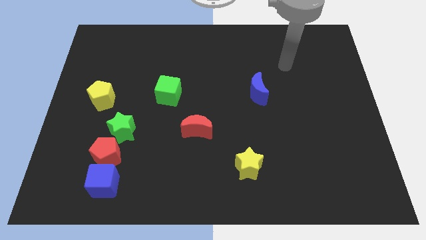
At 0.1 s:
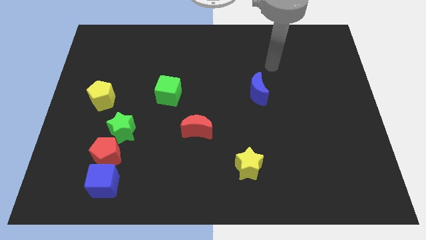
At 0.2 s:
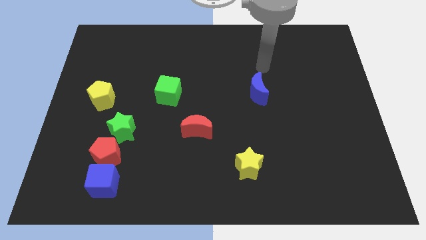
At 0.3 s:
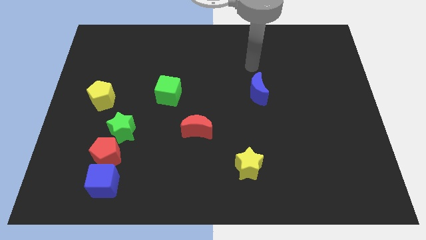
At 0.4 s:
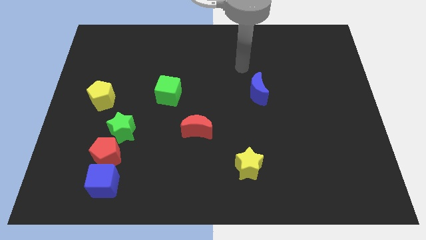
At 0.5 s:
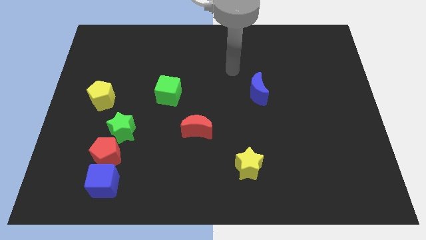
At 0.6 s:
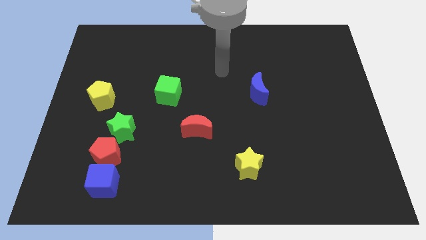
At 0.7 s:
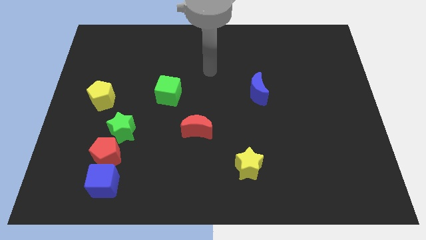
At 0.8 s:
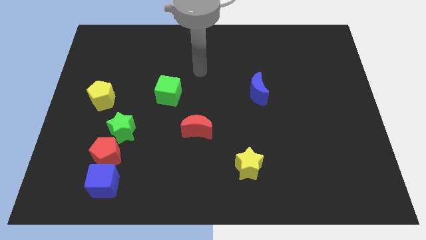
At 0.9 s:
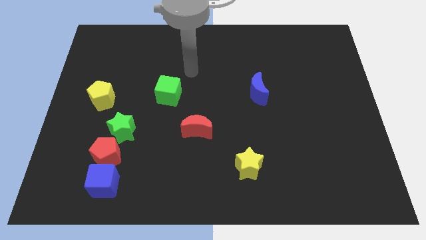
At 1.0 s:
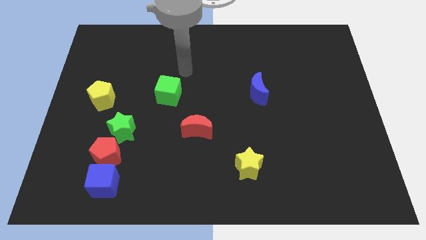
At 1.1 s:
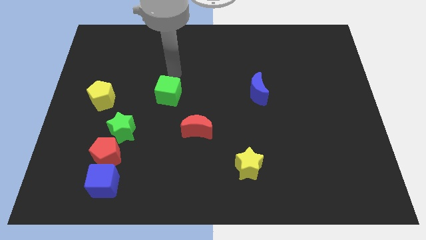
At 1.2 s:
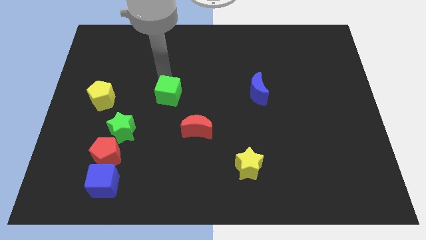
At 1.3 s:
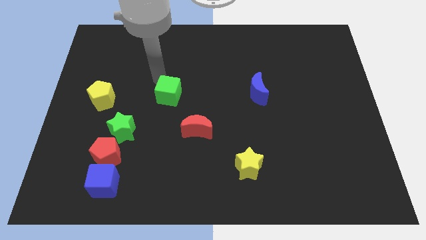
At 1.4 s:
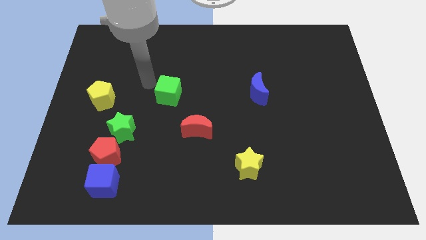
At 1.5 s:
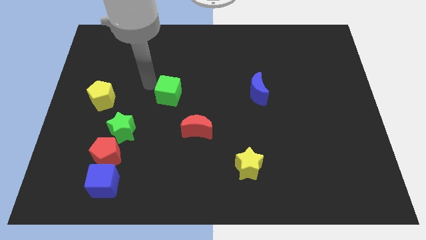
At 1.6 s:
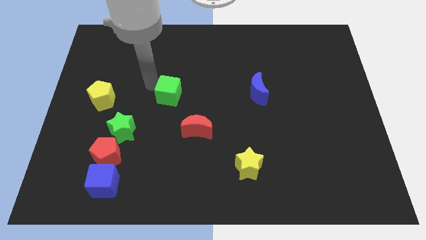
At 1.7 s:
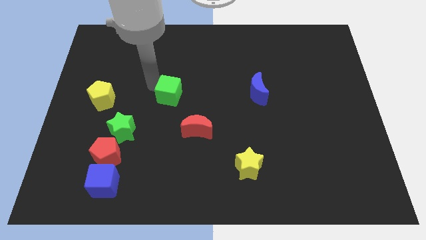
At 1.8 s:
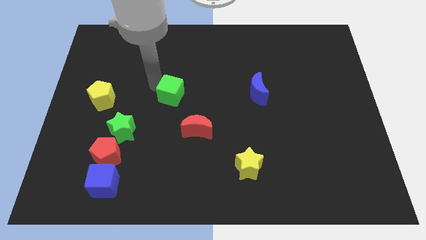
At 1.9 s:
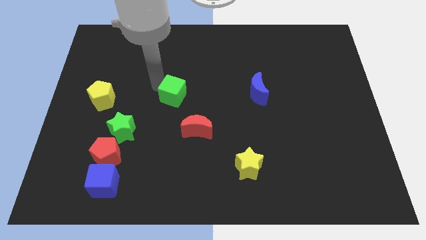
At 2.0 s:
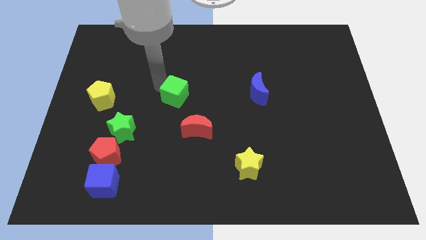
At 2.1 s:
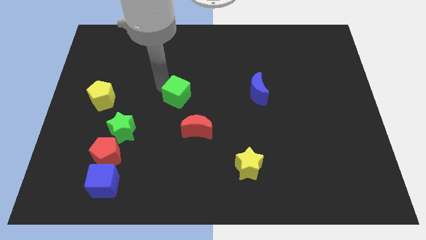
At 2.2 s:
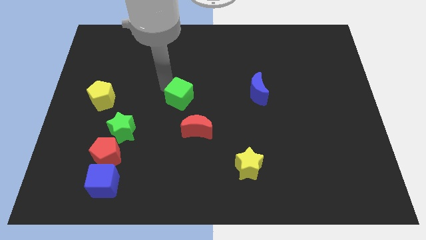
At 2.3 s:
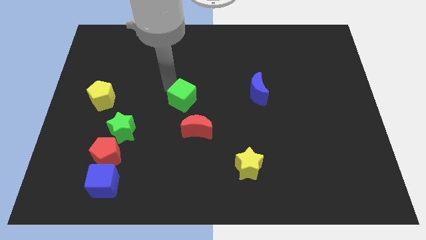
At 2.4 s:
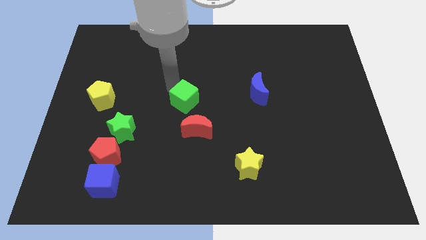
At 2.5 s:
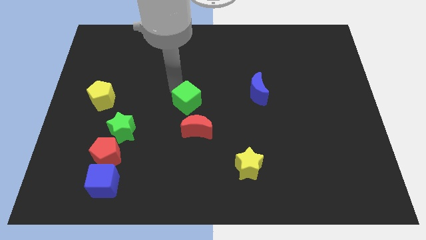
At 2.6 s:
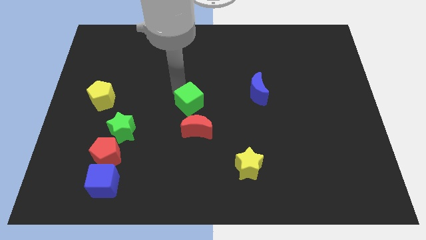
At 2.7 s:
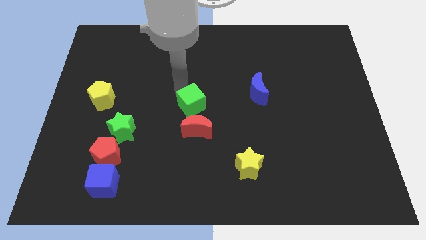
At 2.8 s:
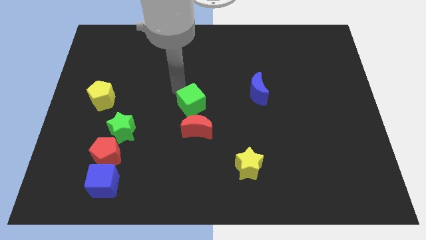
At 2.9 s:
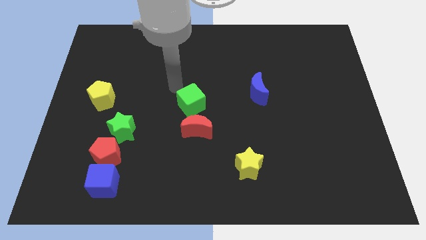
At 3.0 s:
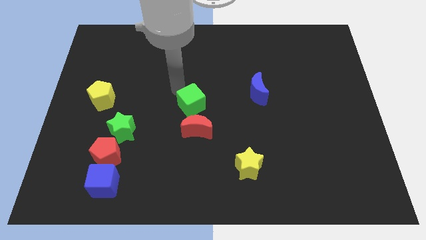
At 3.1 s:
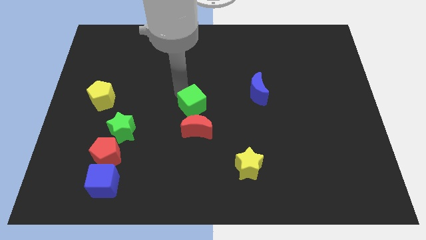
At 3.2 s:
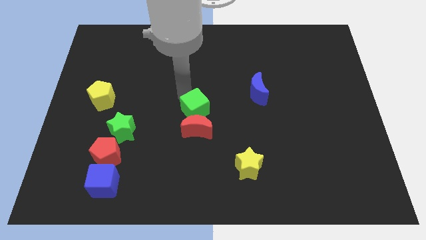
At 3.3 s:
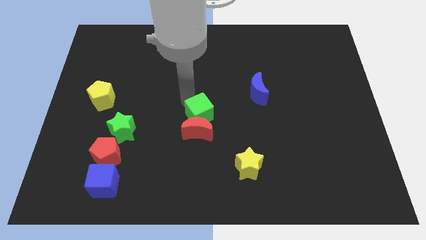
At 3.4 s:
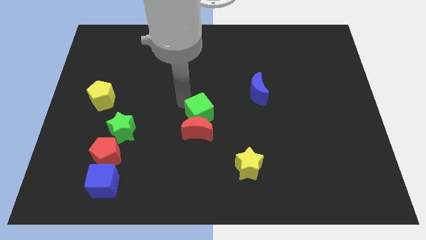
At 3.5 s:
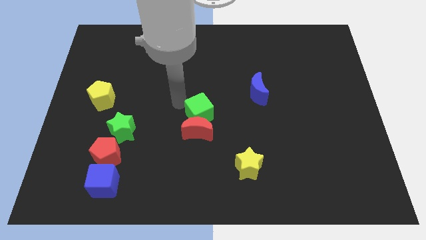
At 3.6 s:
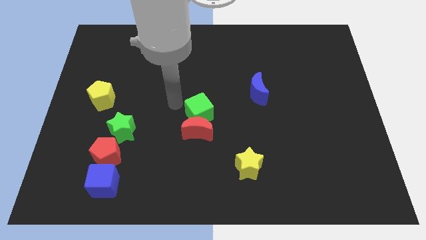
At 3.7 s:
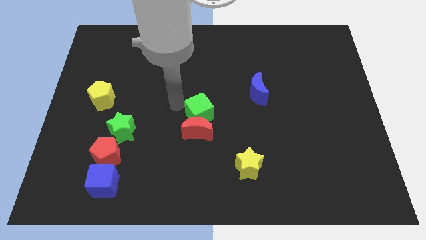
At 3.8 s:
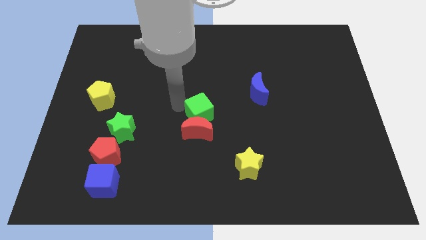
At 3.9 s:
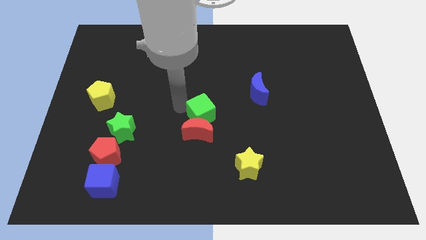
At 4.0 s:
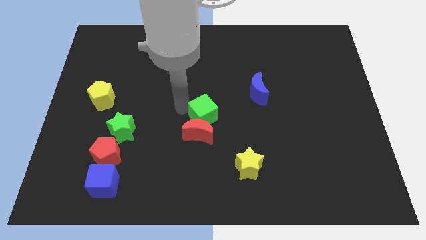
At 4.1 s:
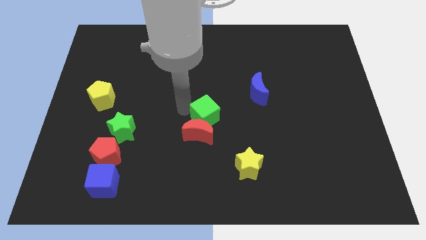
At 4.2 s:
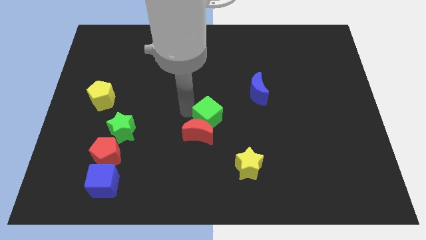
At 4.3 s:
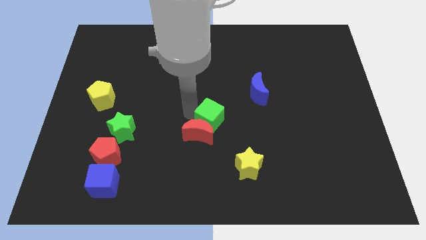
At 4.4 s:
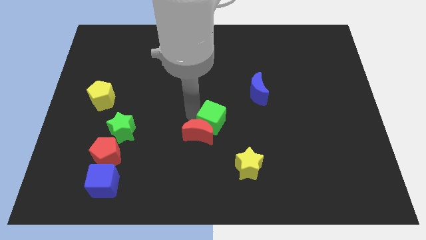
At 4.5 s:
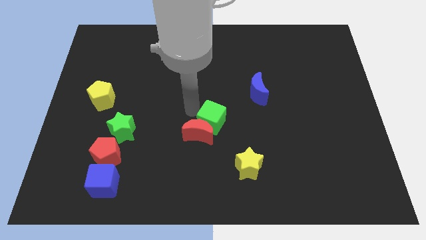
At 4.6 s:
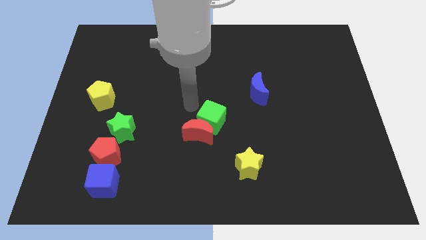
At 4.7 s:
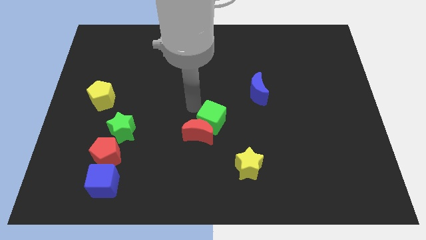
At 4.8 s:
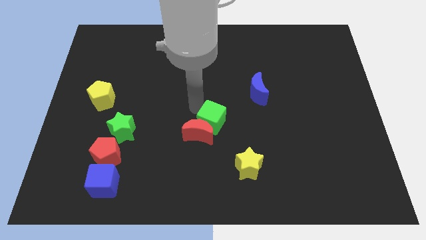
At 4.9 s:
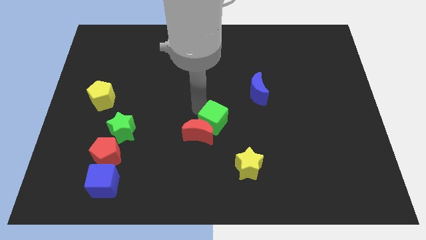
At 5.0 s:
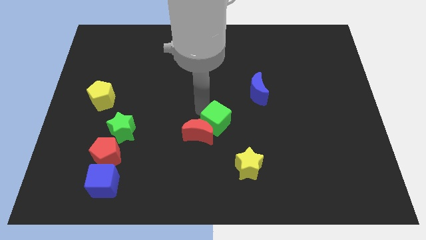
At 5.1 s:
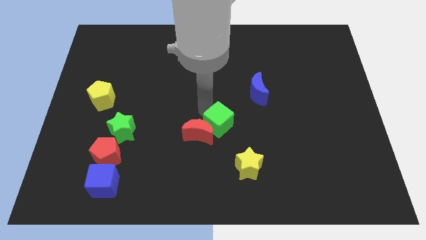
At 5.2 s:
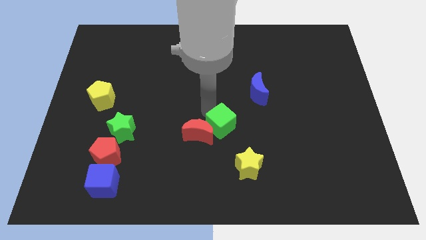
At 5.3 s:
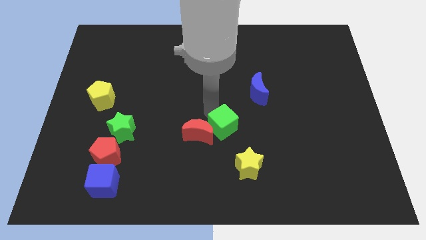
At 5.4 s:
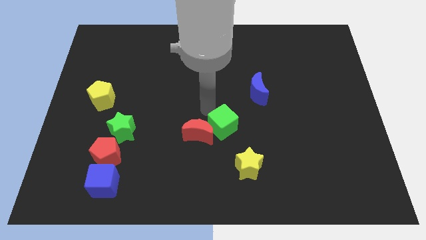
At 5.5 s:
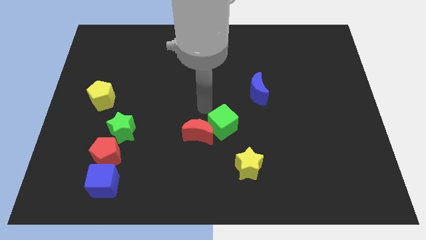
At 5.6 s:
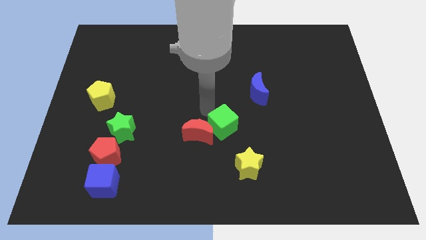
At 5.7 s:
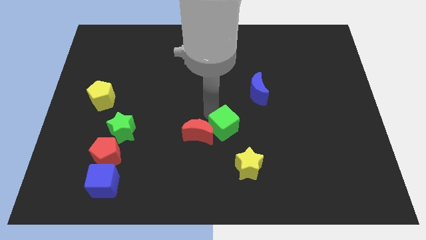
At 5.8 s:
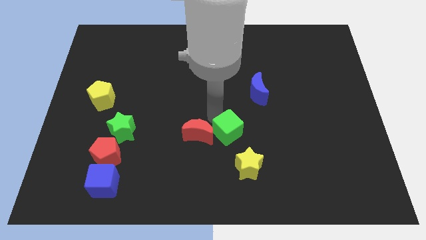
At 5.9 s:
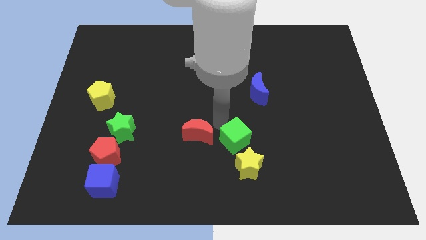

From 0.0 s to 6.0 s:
slide the green cube downwards and right

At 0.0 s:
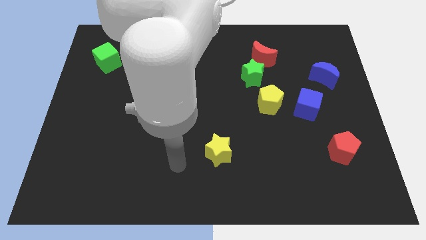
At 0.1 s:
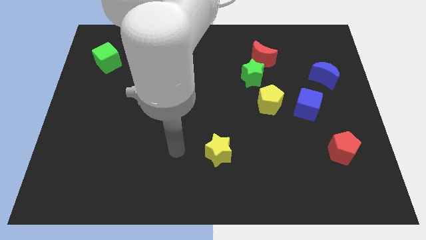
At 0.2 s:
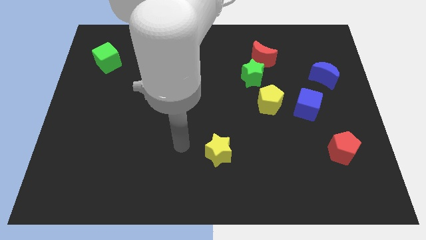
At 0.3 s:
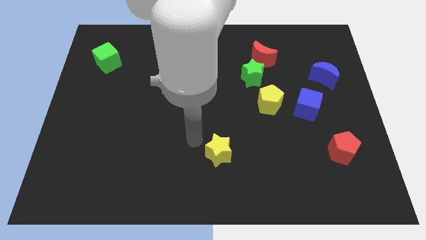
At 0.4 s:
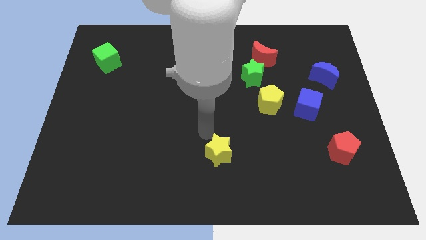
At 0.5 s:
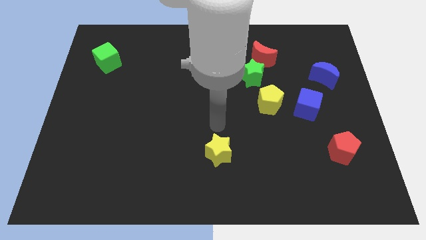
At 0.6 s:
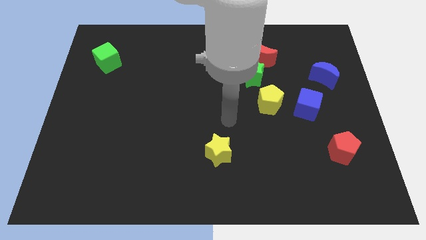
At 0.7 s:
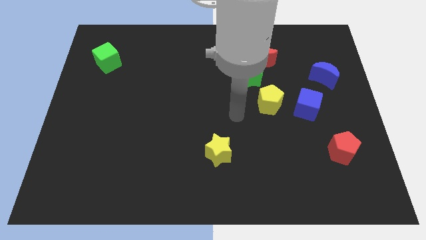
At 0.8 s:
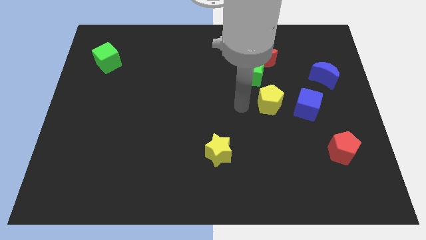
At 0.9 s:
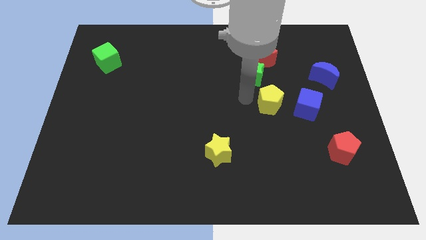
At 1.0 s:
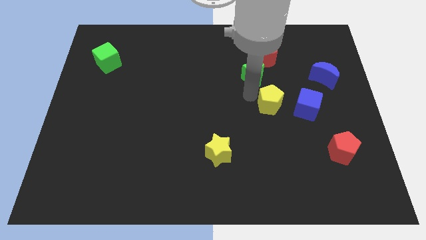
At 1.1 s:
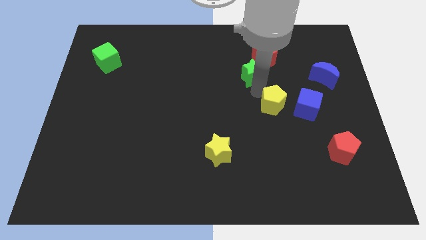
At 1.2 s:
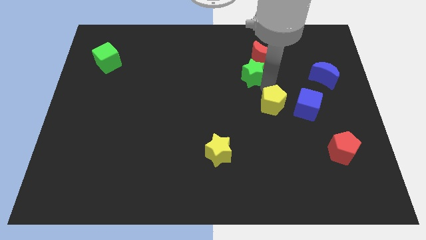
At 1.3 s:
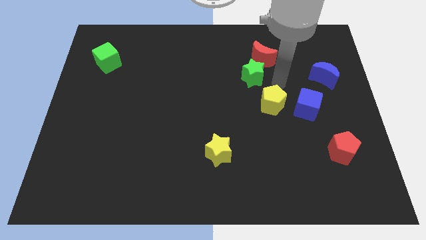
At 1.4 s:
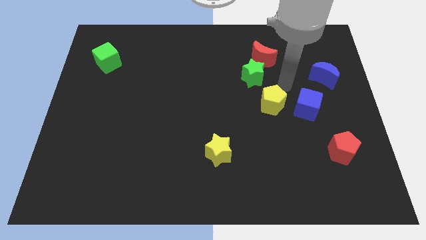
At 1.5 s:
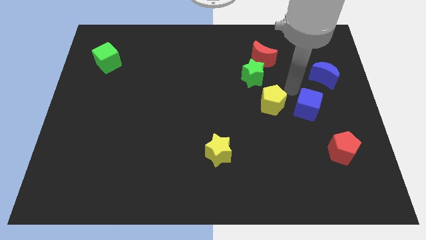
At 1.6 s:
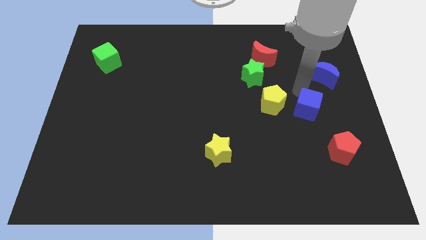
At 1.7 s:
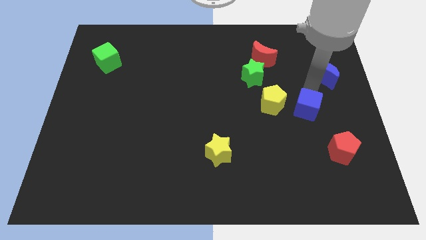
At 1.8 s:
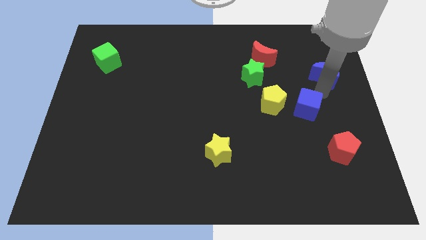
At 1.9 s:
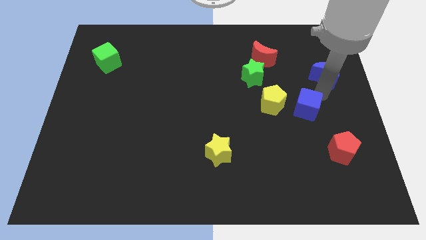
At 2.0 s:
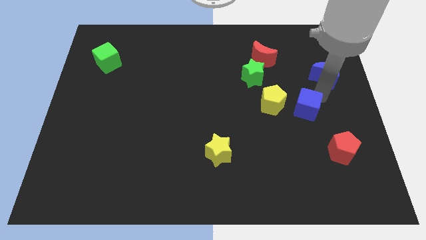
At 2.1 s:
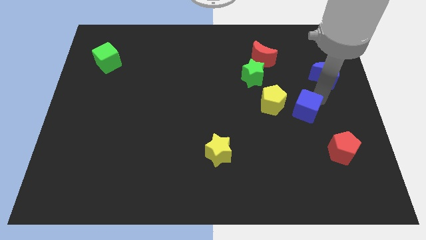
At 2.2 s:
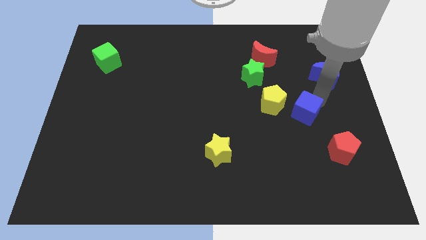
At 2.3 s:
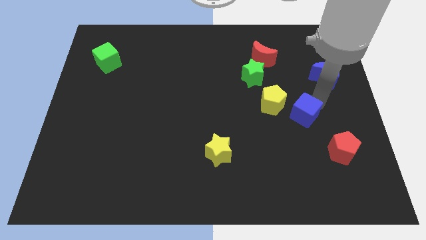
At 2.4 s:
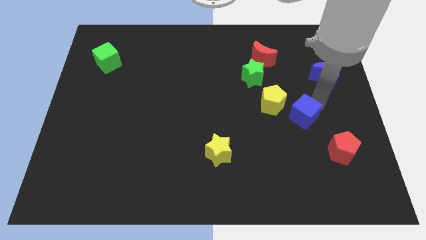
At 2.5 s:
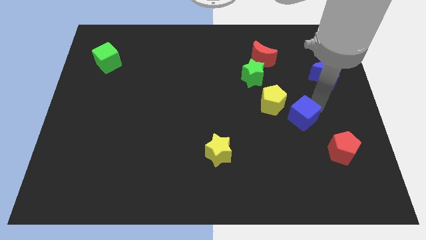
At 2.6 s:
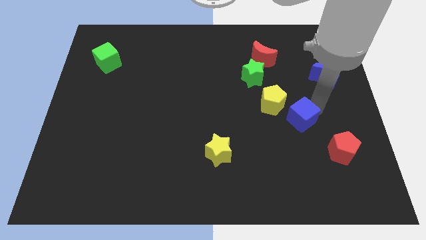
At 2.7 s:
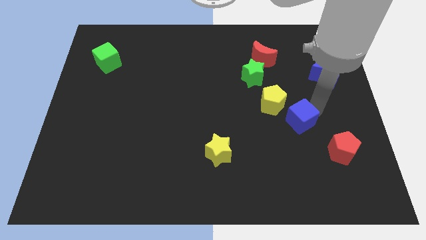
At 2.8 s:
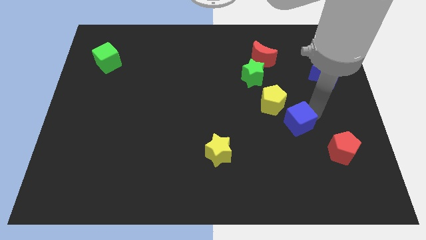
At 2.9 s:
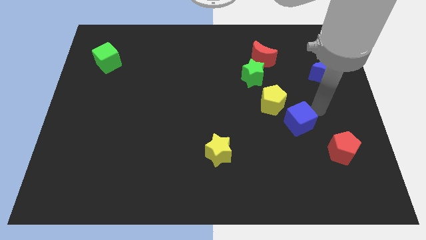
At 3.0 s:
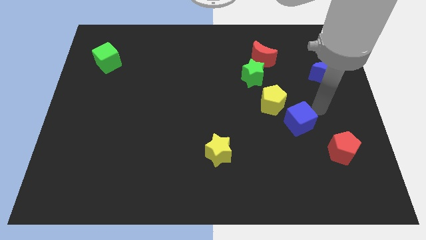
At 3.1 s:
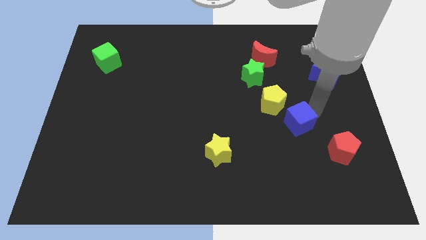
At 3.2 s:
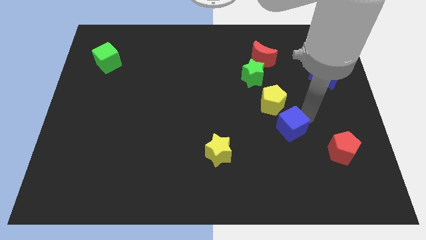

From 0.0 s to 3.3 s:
slide the blue cube a little downwards and to the left diagonally
